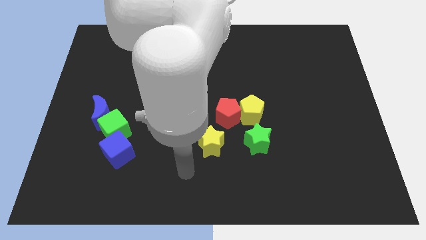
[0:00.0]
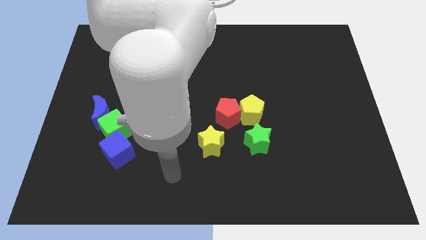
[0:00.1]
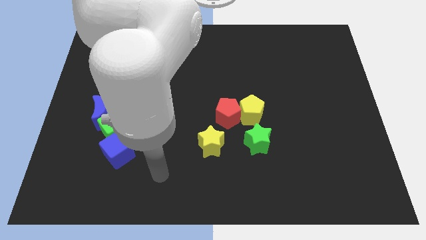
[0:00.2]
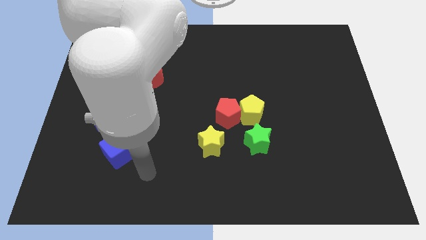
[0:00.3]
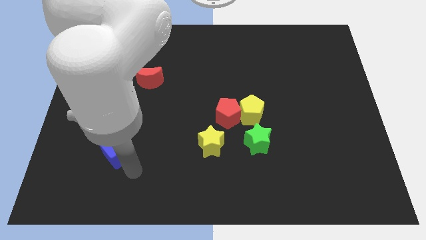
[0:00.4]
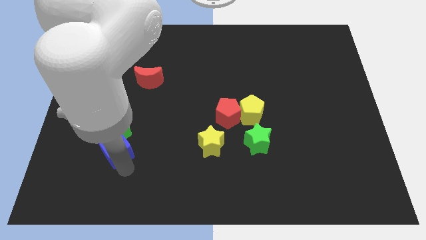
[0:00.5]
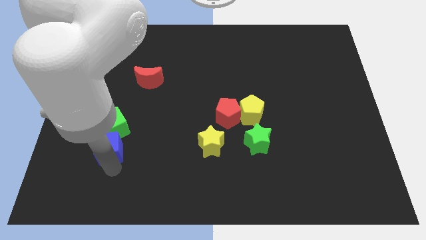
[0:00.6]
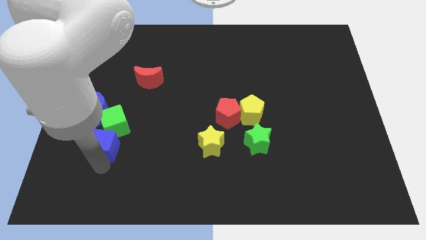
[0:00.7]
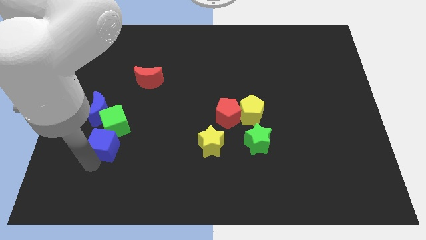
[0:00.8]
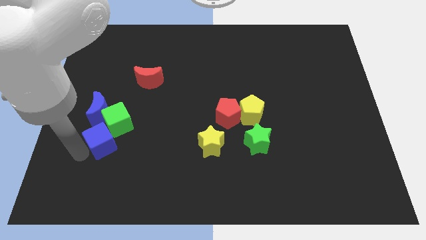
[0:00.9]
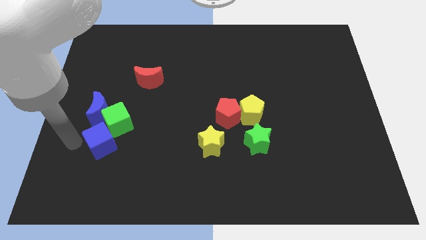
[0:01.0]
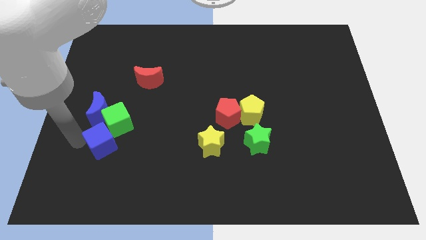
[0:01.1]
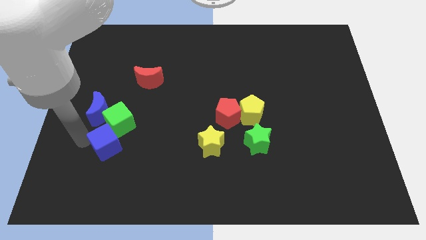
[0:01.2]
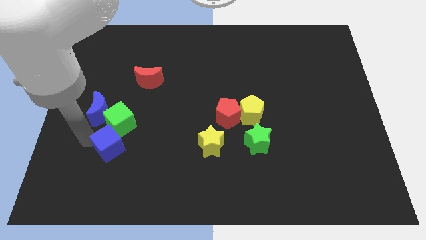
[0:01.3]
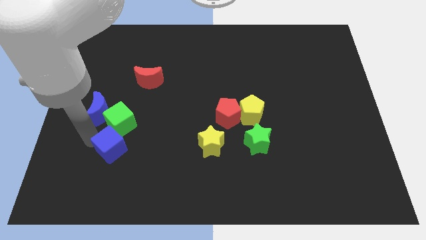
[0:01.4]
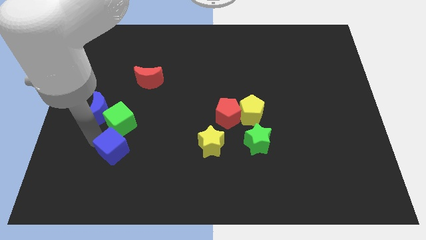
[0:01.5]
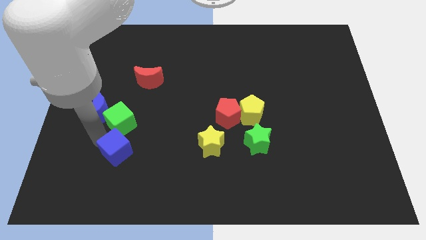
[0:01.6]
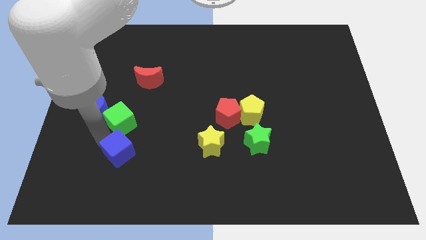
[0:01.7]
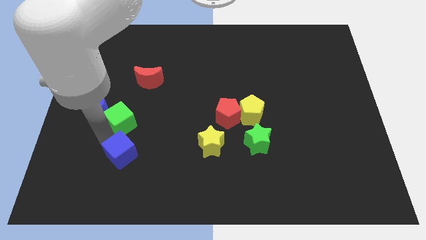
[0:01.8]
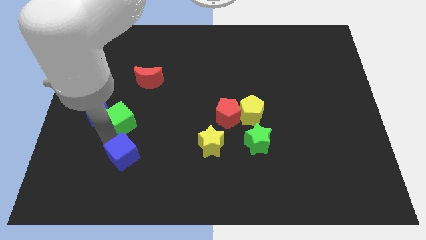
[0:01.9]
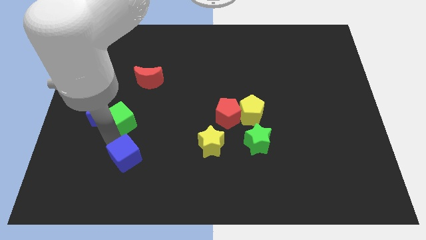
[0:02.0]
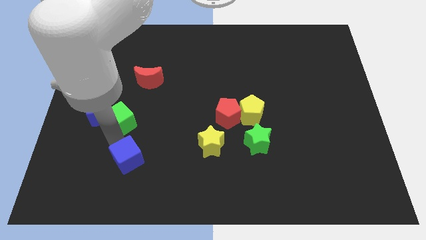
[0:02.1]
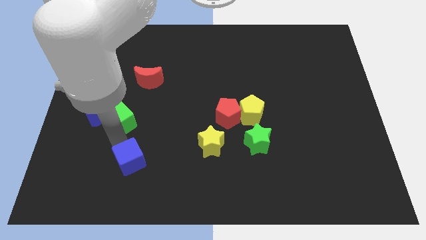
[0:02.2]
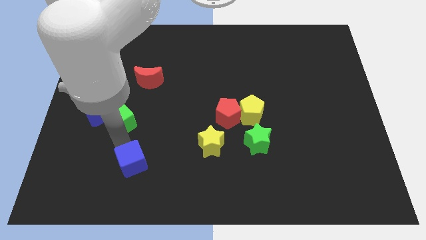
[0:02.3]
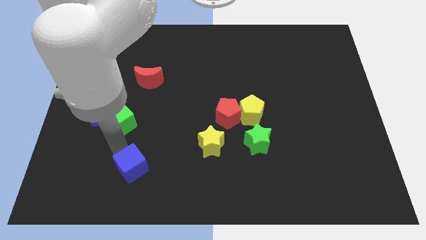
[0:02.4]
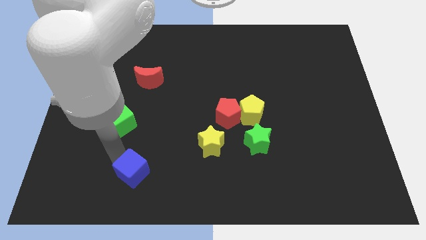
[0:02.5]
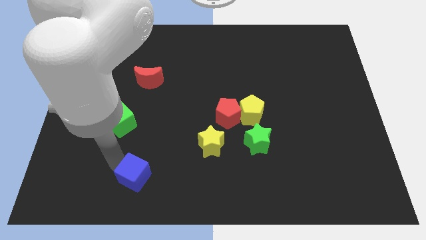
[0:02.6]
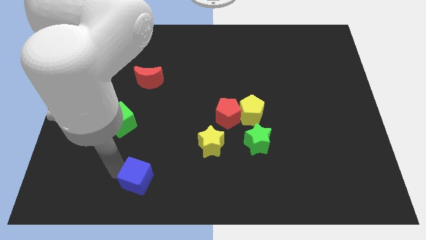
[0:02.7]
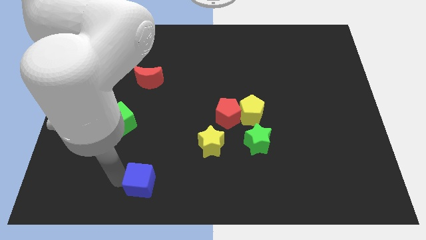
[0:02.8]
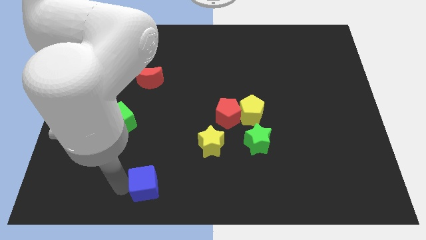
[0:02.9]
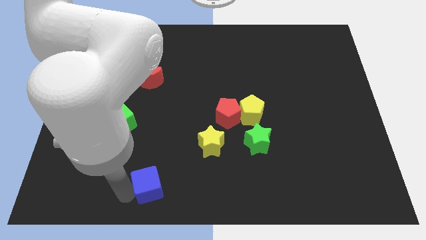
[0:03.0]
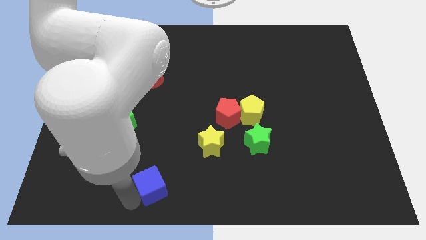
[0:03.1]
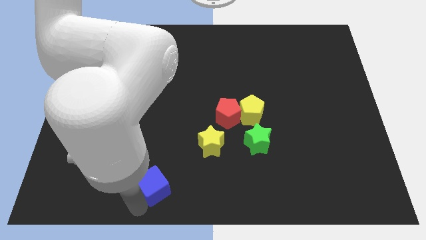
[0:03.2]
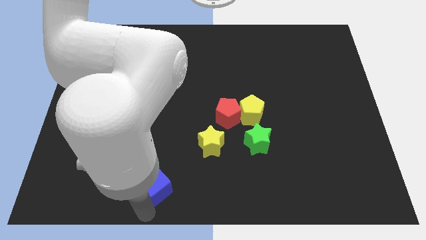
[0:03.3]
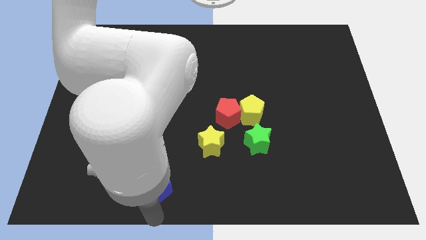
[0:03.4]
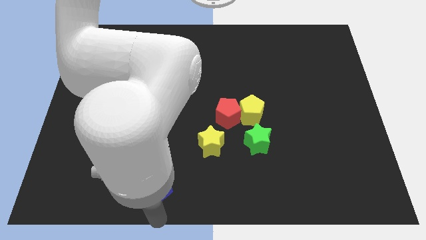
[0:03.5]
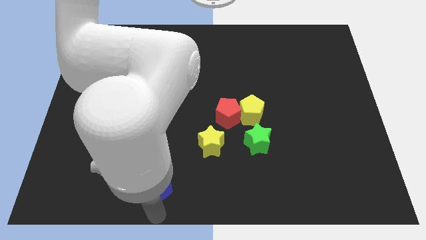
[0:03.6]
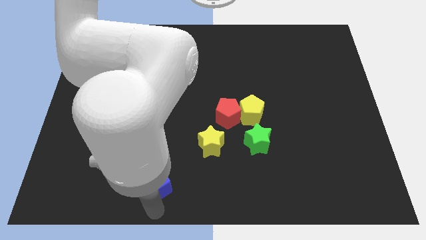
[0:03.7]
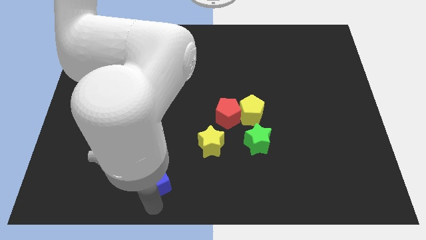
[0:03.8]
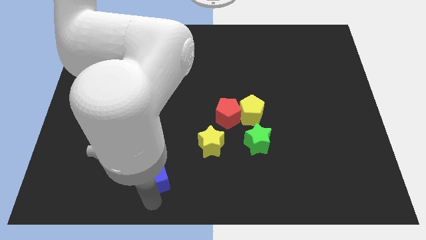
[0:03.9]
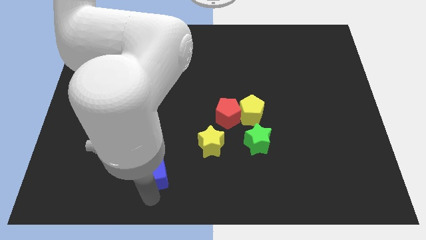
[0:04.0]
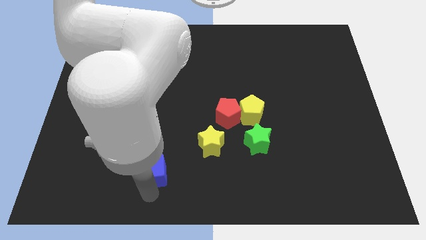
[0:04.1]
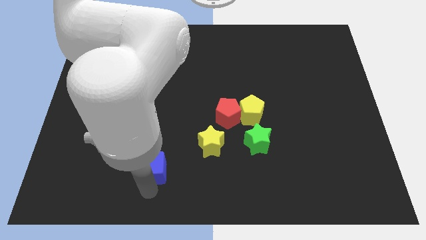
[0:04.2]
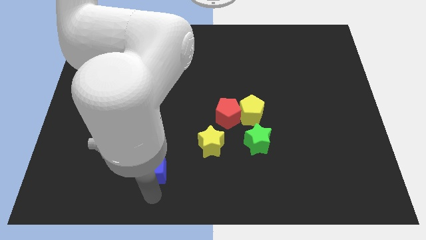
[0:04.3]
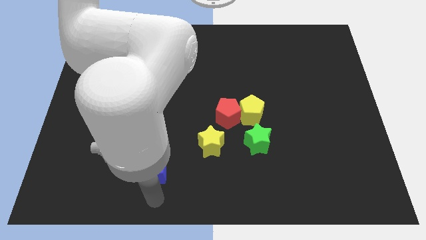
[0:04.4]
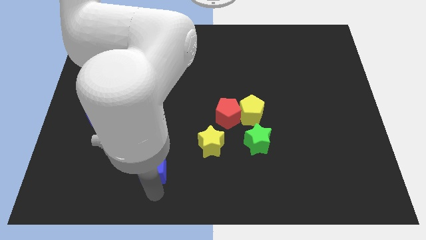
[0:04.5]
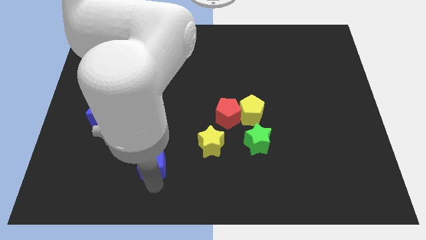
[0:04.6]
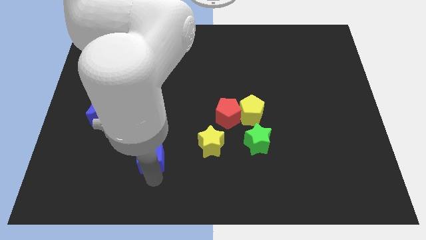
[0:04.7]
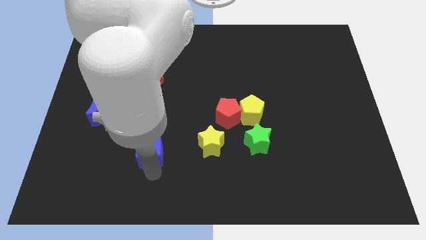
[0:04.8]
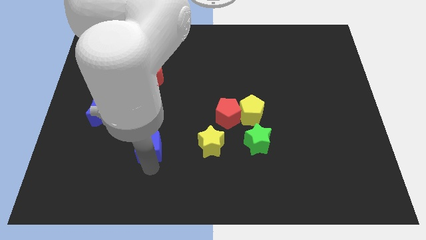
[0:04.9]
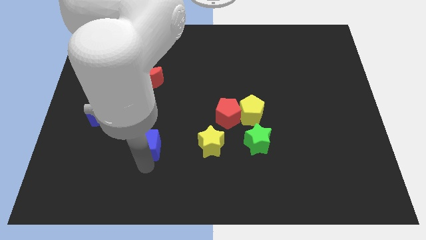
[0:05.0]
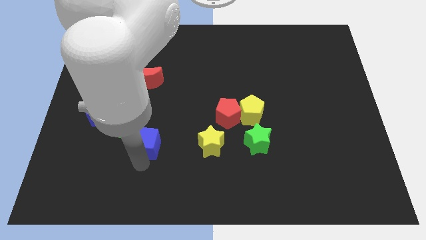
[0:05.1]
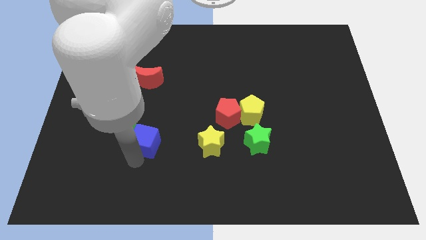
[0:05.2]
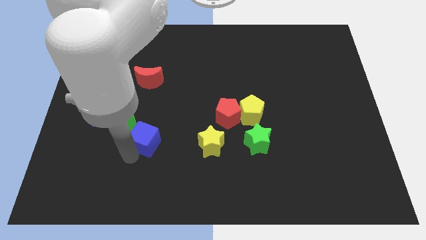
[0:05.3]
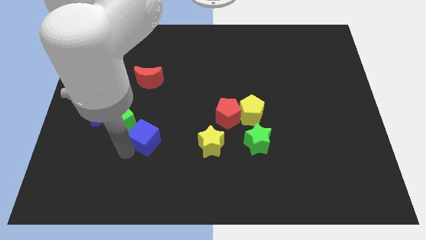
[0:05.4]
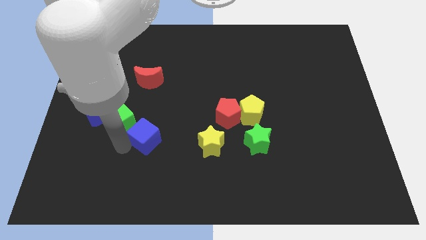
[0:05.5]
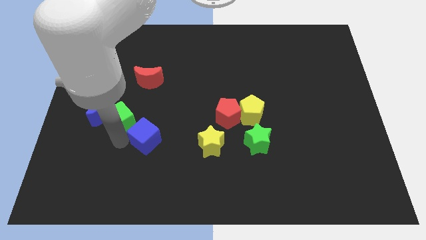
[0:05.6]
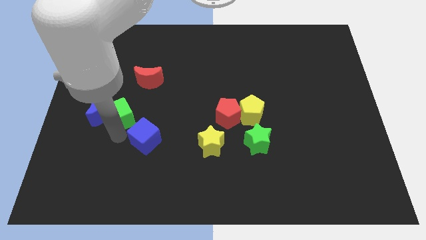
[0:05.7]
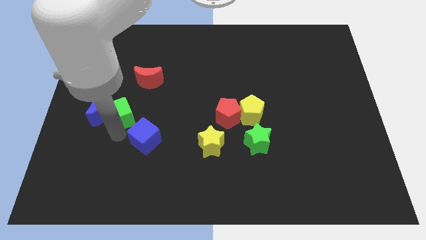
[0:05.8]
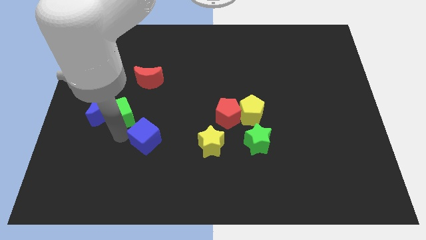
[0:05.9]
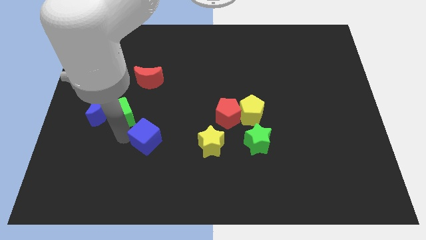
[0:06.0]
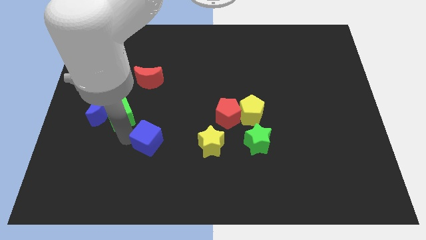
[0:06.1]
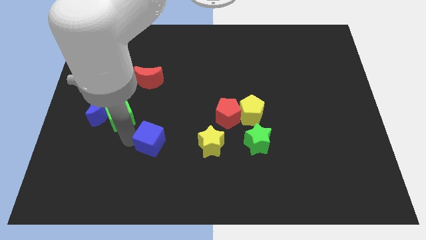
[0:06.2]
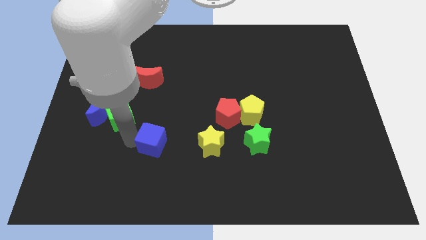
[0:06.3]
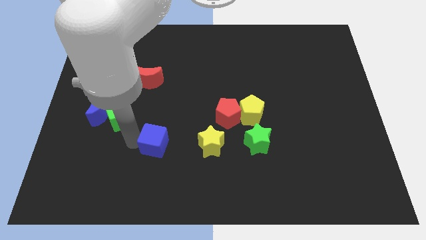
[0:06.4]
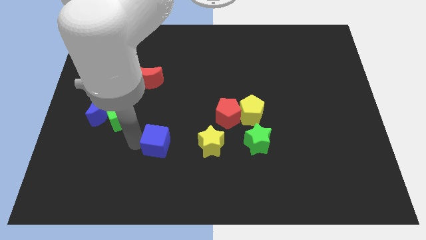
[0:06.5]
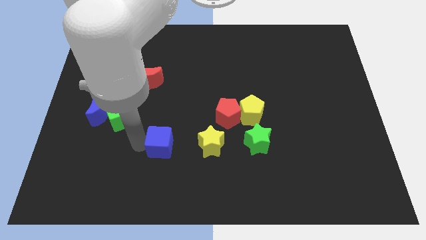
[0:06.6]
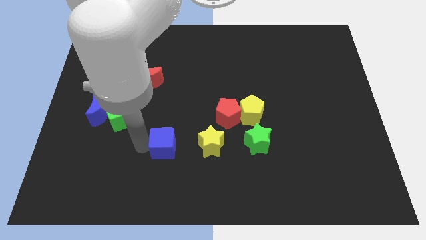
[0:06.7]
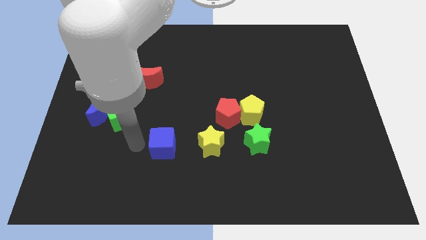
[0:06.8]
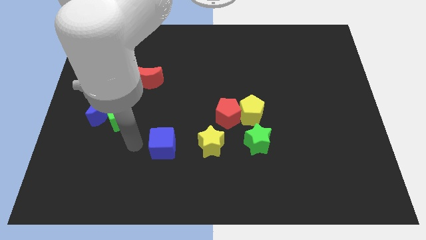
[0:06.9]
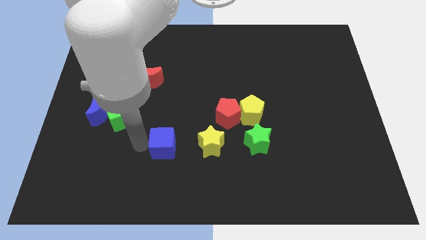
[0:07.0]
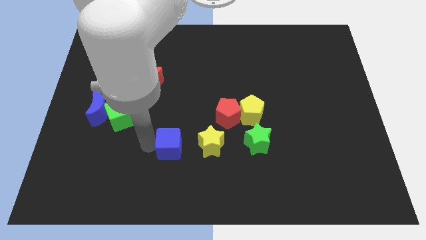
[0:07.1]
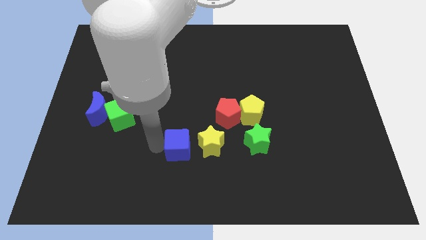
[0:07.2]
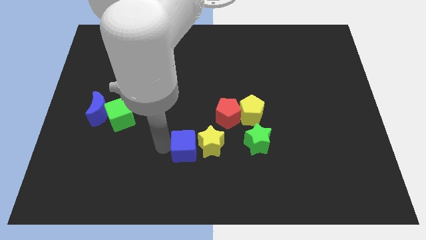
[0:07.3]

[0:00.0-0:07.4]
move the blue cube to the yellow star
